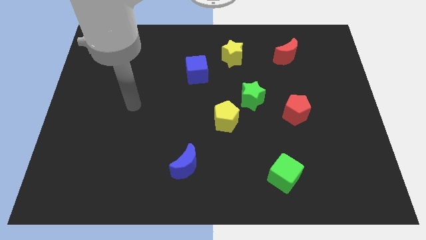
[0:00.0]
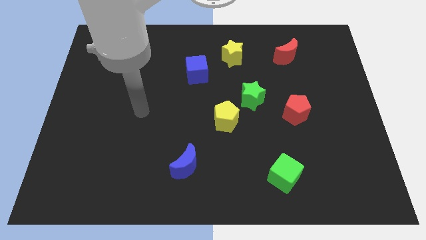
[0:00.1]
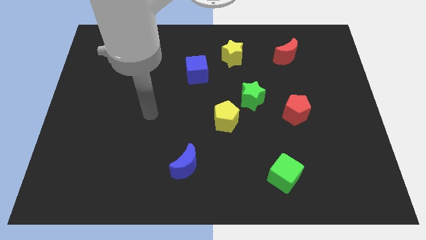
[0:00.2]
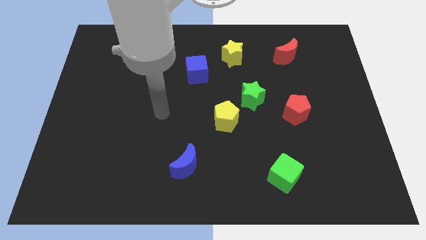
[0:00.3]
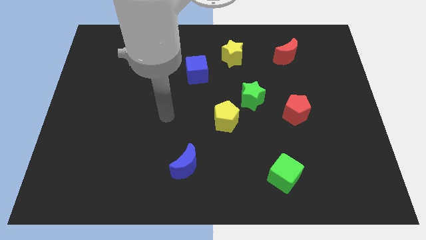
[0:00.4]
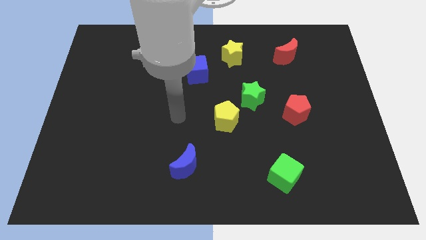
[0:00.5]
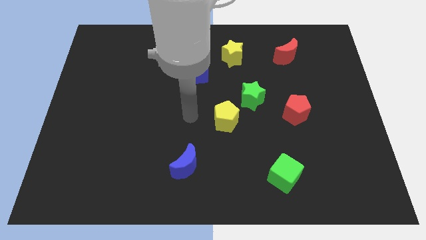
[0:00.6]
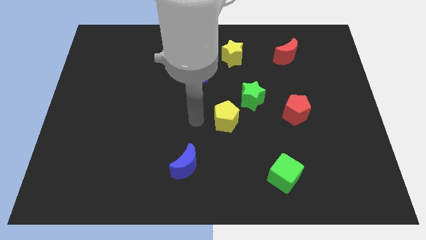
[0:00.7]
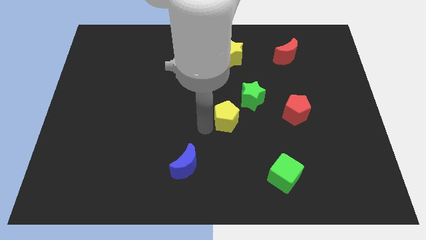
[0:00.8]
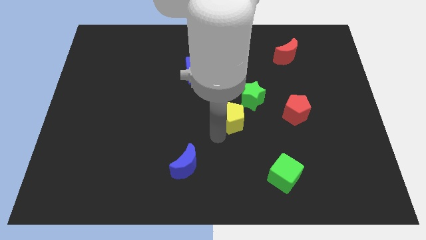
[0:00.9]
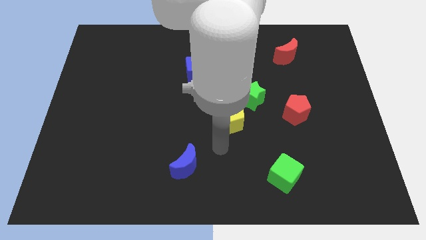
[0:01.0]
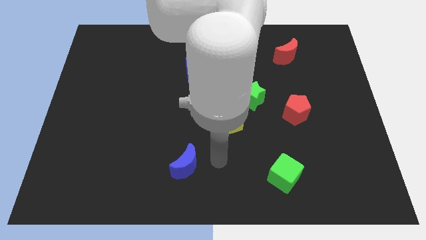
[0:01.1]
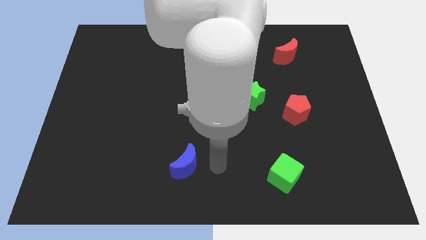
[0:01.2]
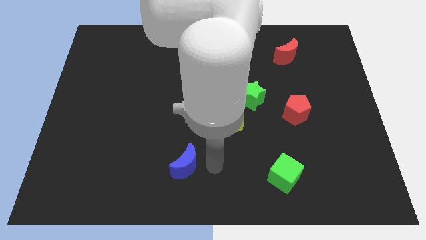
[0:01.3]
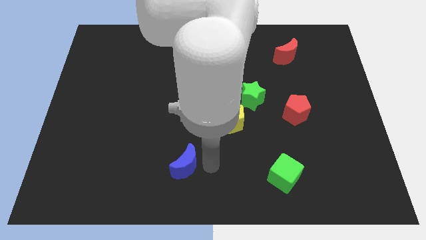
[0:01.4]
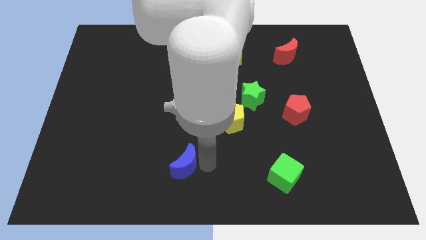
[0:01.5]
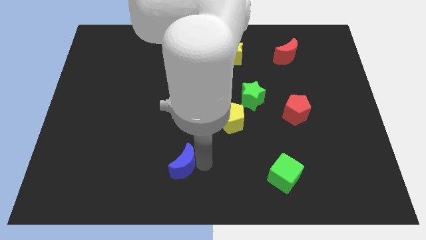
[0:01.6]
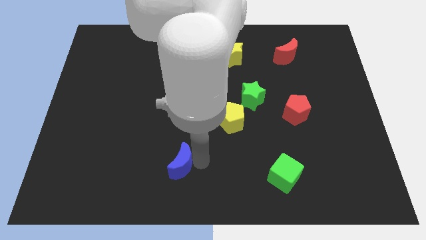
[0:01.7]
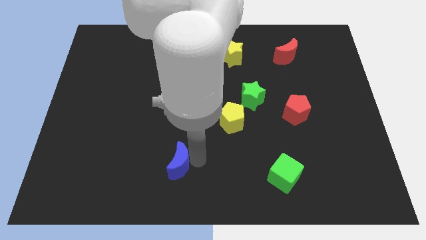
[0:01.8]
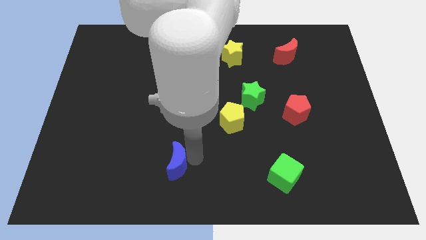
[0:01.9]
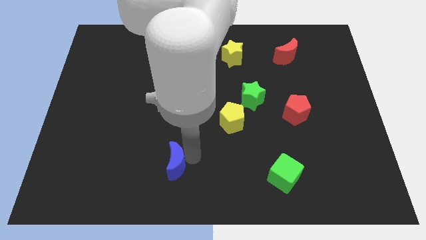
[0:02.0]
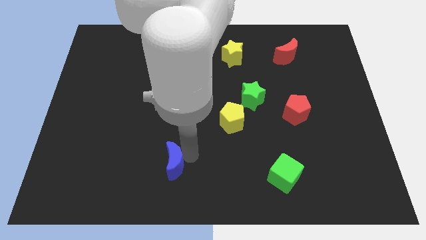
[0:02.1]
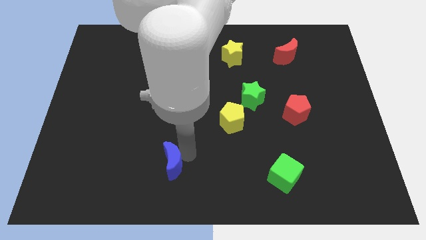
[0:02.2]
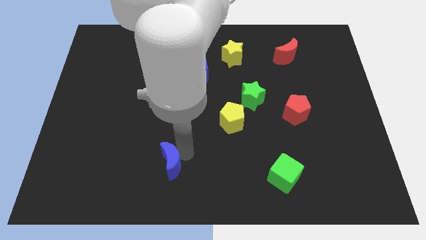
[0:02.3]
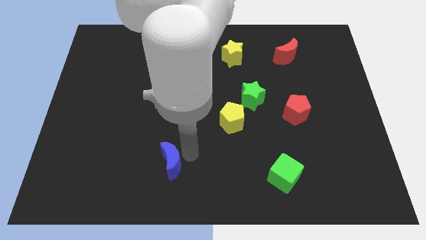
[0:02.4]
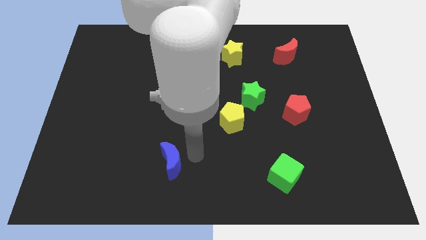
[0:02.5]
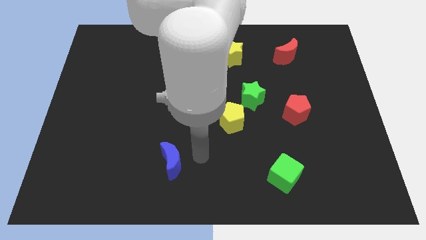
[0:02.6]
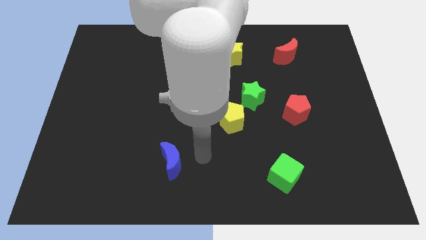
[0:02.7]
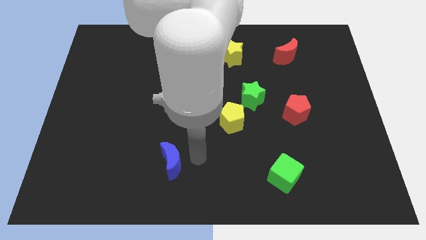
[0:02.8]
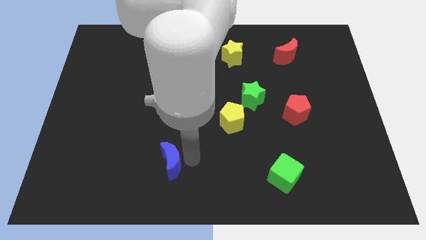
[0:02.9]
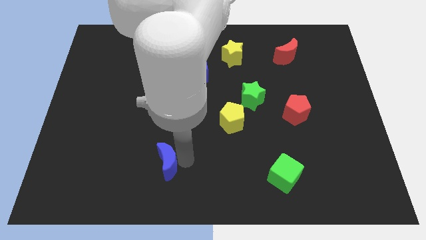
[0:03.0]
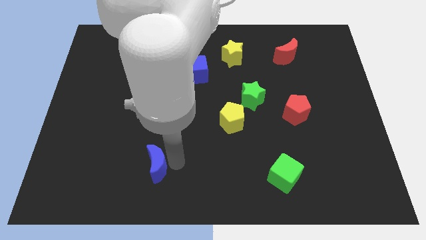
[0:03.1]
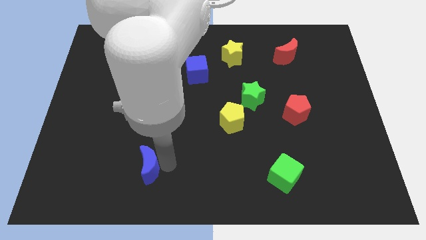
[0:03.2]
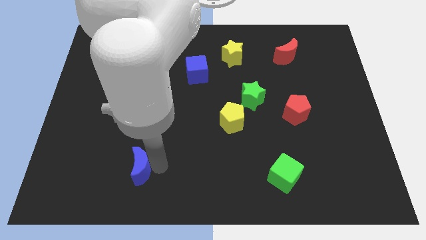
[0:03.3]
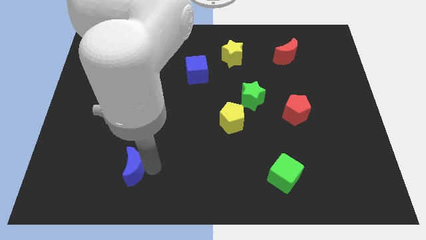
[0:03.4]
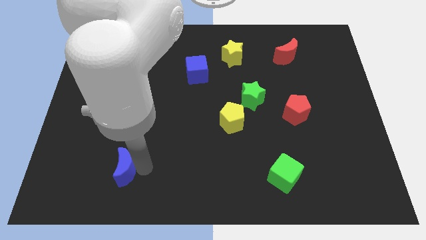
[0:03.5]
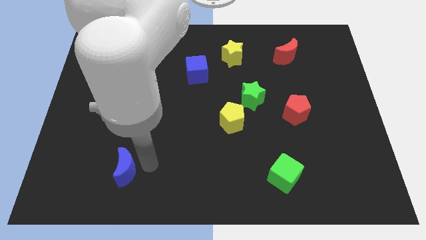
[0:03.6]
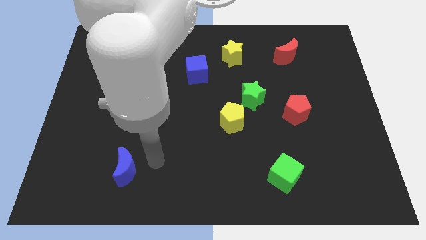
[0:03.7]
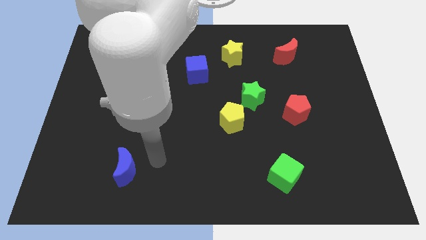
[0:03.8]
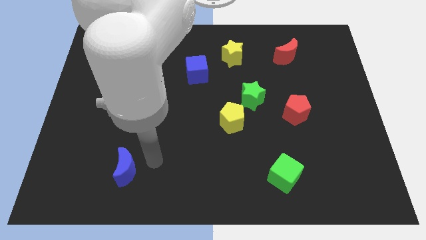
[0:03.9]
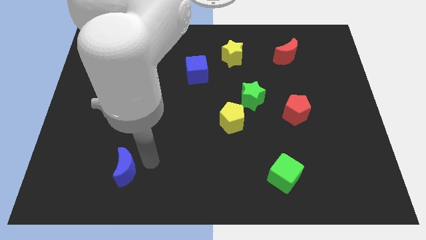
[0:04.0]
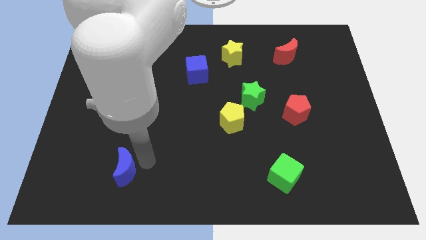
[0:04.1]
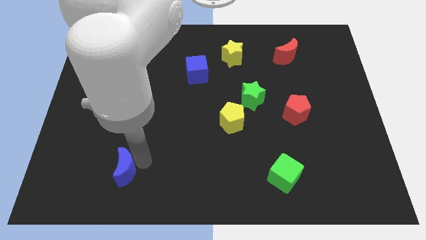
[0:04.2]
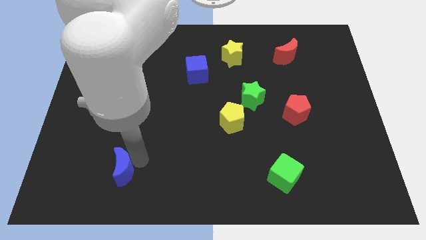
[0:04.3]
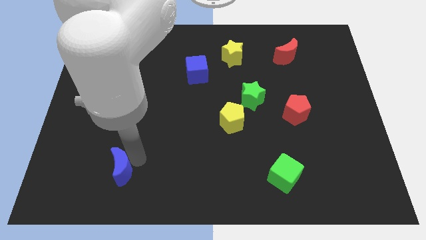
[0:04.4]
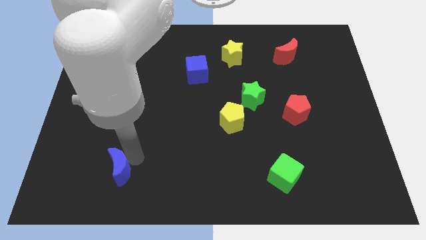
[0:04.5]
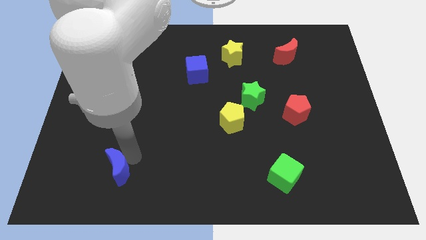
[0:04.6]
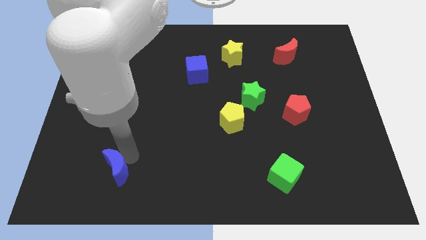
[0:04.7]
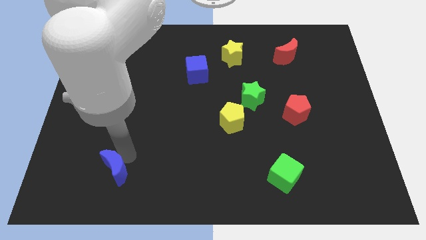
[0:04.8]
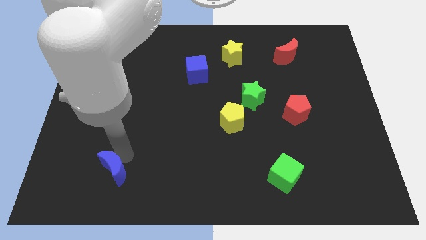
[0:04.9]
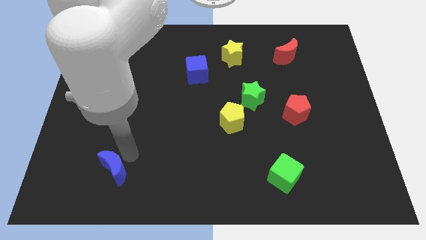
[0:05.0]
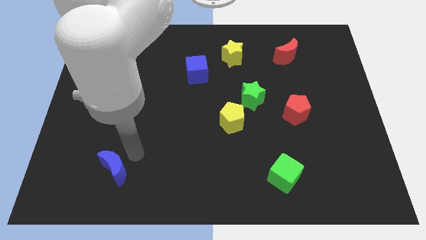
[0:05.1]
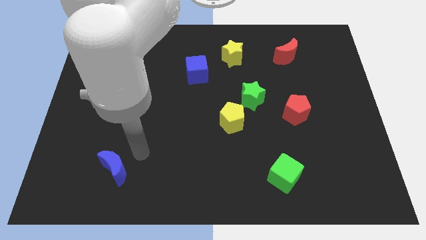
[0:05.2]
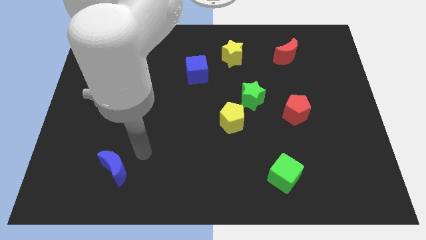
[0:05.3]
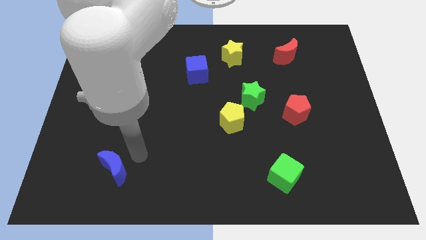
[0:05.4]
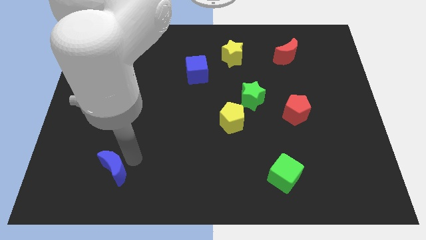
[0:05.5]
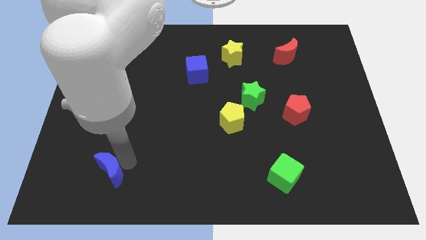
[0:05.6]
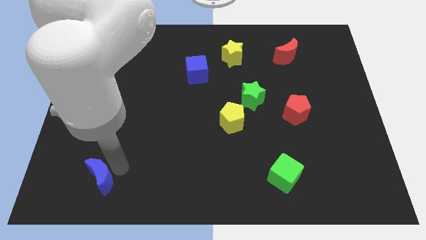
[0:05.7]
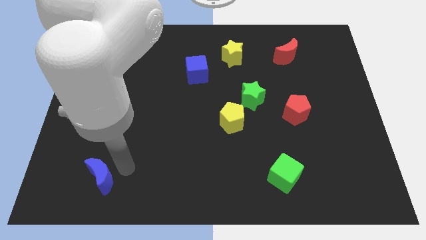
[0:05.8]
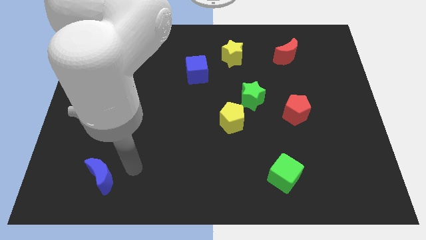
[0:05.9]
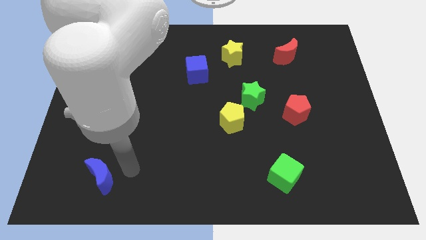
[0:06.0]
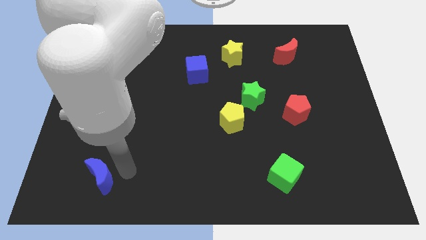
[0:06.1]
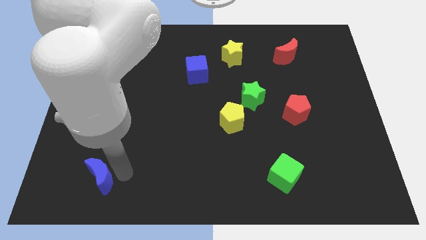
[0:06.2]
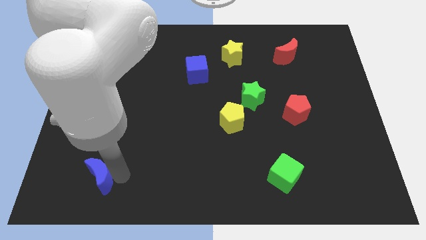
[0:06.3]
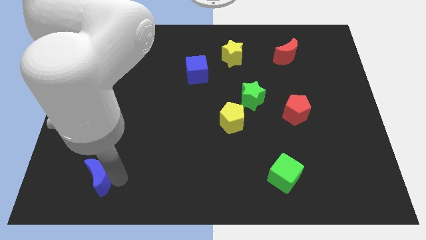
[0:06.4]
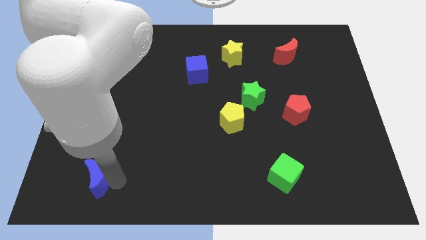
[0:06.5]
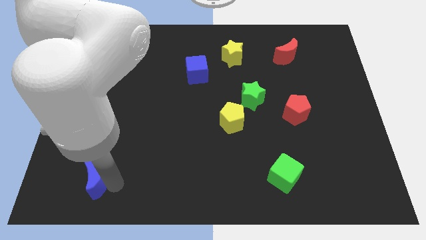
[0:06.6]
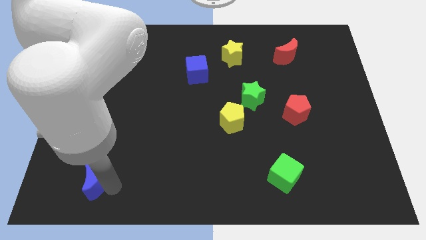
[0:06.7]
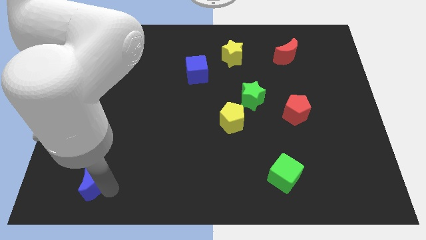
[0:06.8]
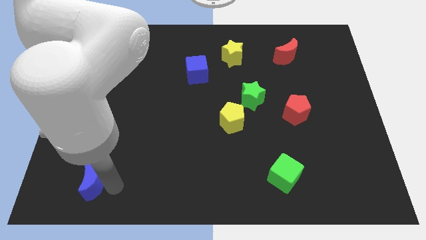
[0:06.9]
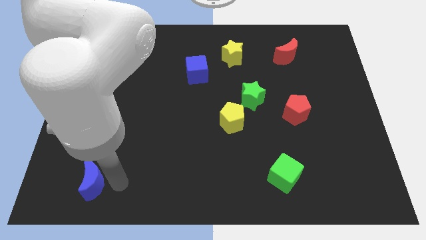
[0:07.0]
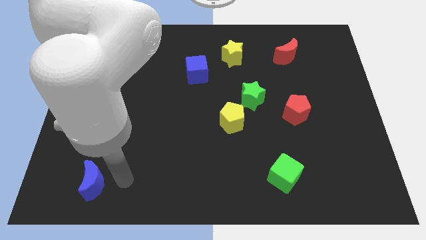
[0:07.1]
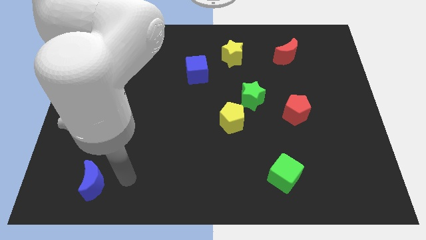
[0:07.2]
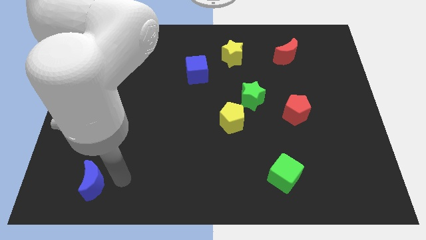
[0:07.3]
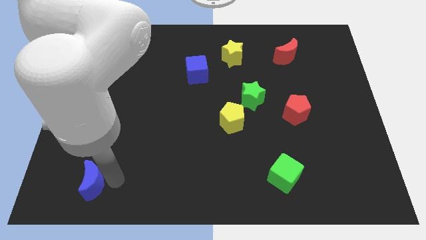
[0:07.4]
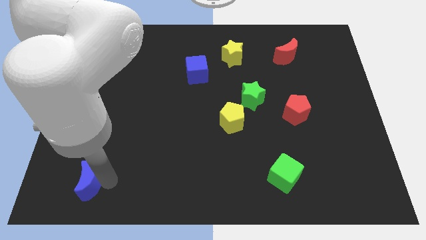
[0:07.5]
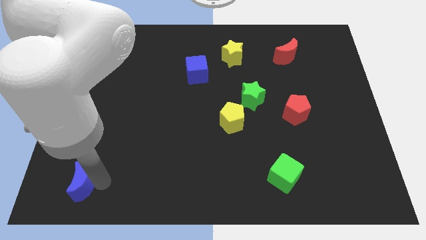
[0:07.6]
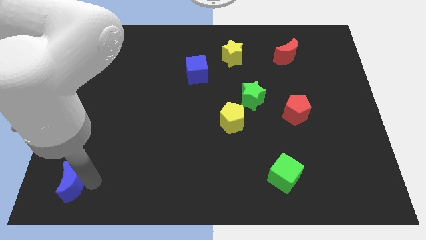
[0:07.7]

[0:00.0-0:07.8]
slide the blue moon to the bottom left of the board

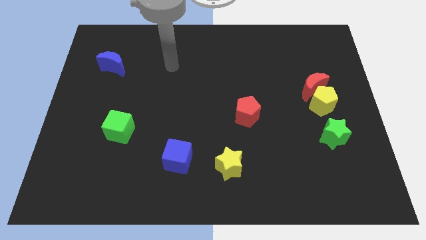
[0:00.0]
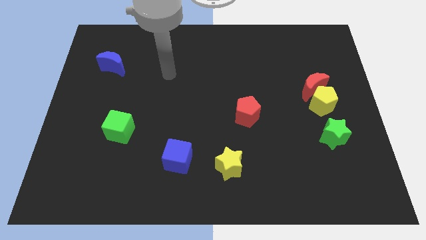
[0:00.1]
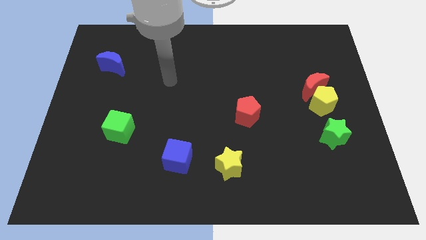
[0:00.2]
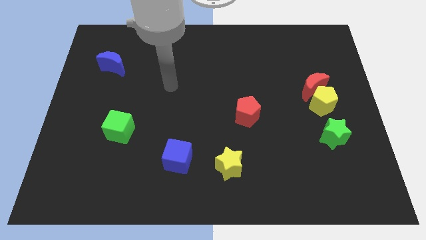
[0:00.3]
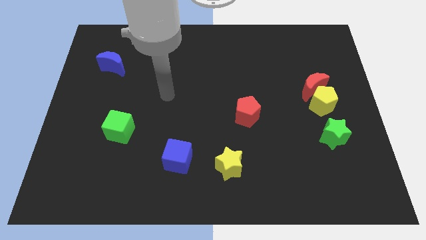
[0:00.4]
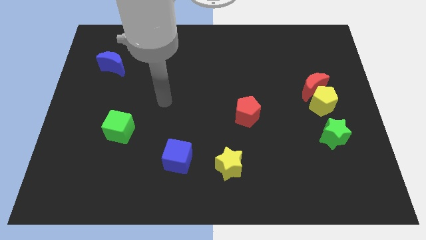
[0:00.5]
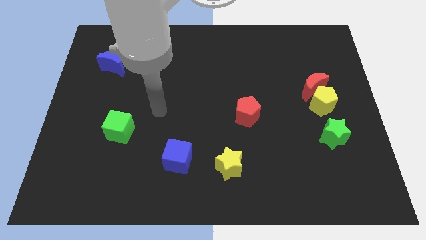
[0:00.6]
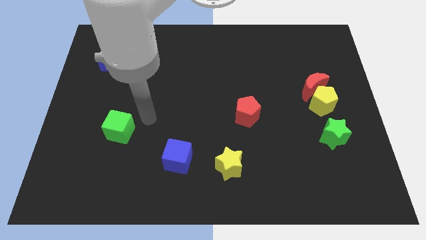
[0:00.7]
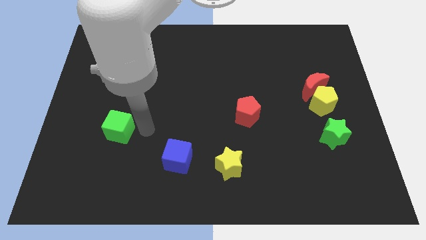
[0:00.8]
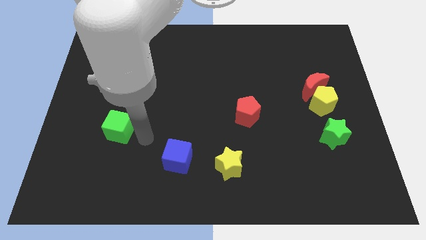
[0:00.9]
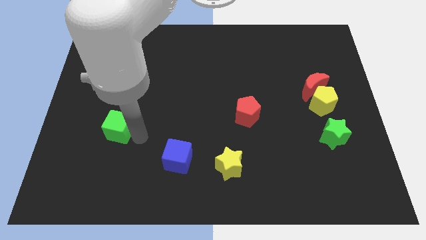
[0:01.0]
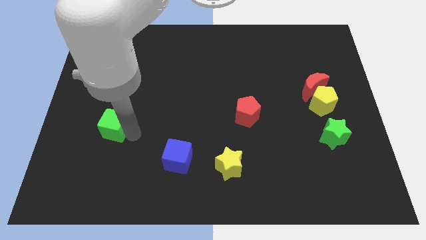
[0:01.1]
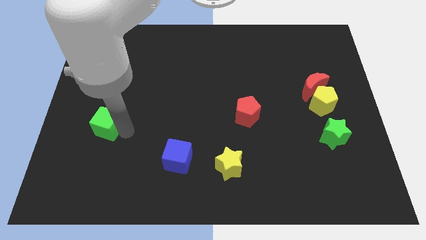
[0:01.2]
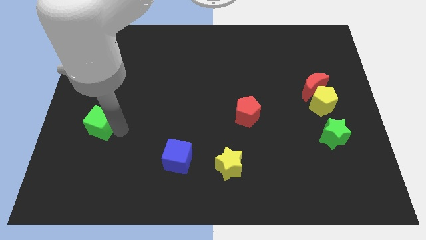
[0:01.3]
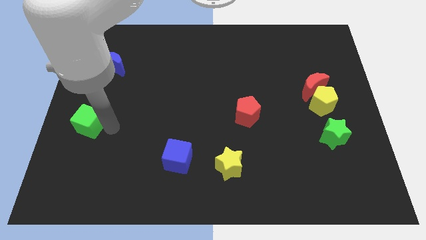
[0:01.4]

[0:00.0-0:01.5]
put the green cube to the left side
